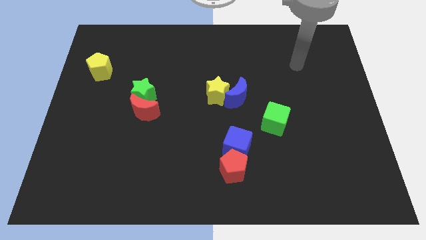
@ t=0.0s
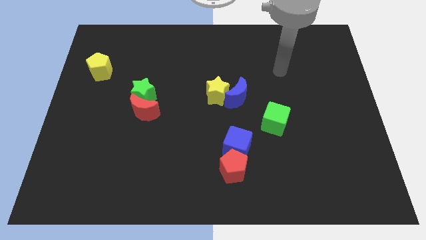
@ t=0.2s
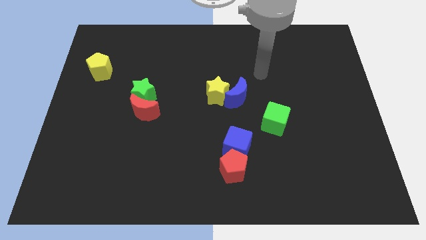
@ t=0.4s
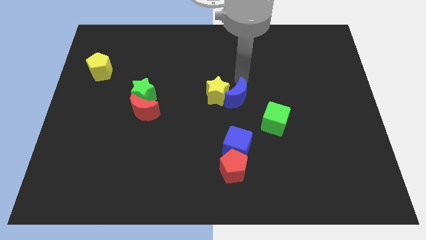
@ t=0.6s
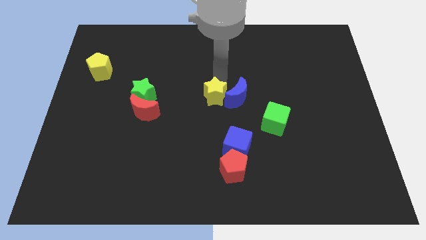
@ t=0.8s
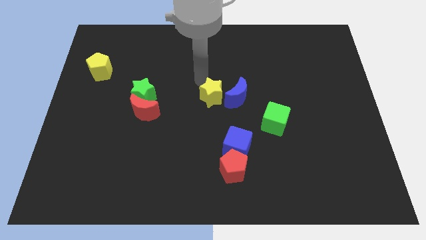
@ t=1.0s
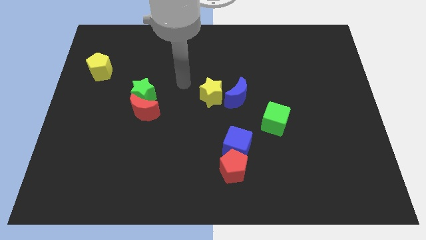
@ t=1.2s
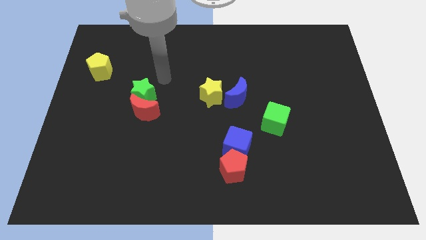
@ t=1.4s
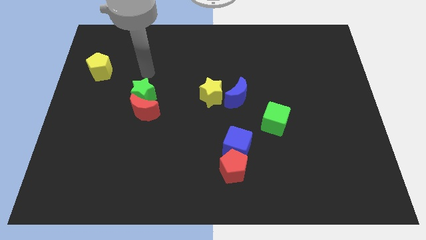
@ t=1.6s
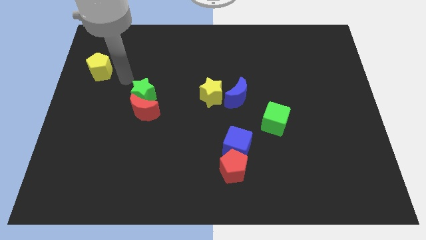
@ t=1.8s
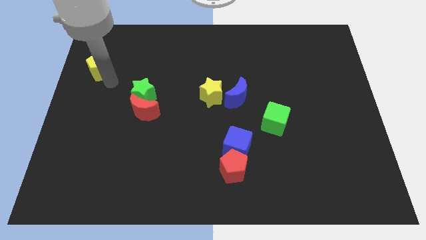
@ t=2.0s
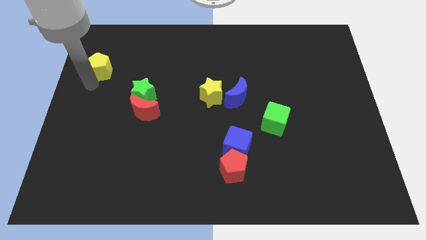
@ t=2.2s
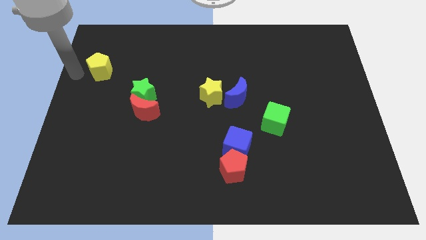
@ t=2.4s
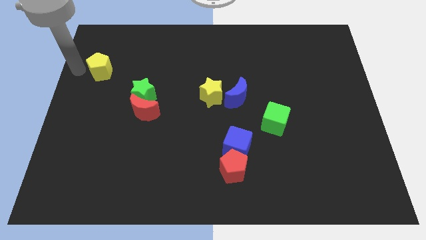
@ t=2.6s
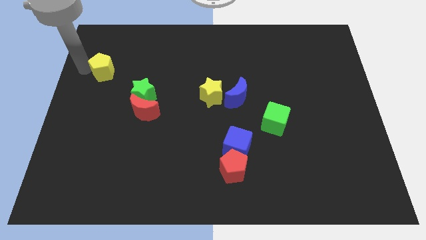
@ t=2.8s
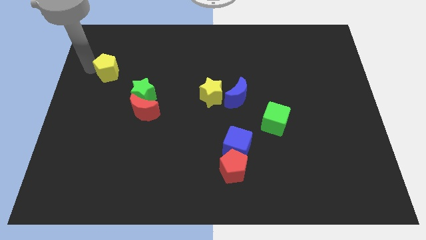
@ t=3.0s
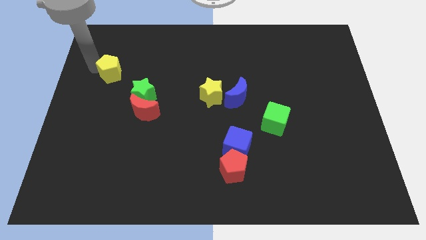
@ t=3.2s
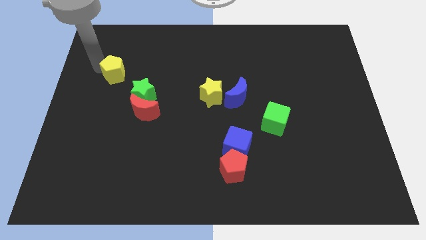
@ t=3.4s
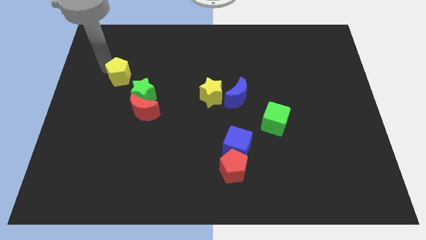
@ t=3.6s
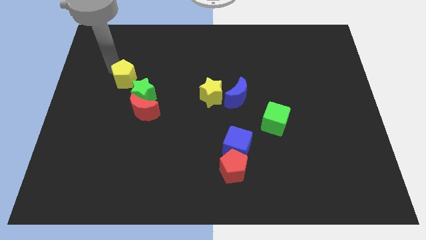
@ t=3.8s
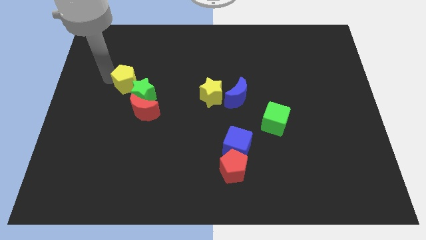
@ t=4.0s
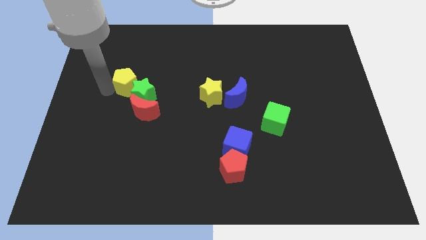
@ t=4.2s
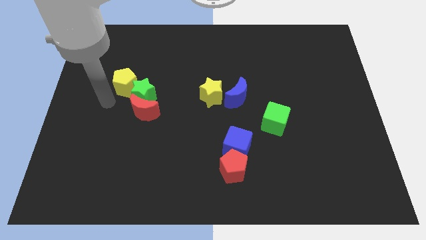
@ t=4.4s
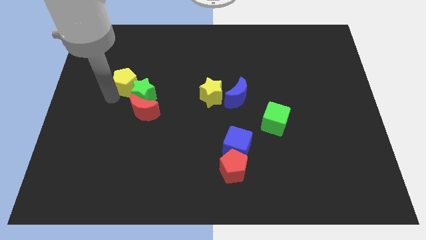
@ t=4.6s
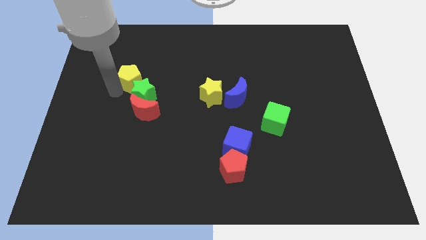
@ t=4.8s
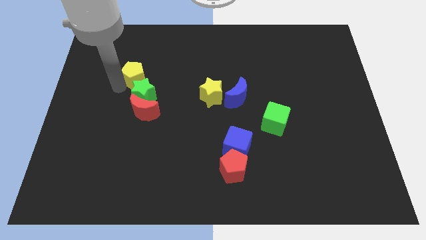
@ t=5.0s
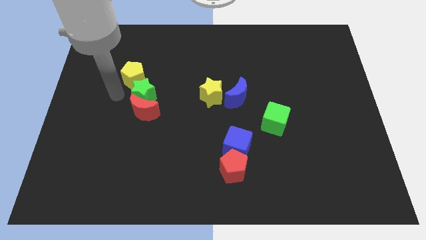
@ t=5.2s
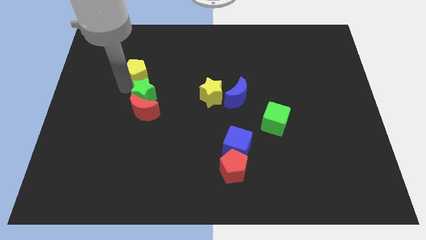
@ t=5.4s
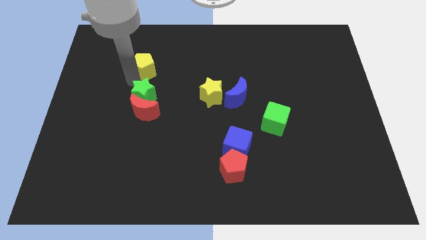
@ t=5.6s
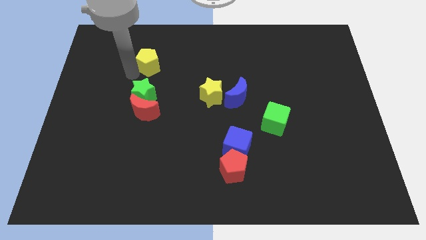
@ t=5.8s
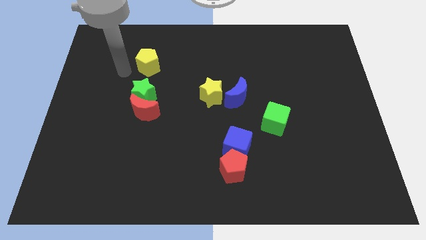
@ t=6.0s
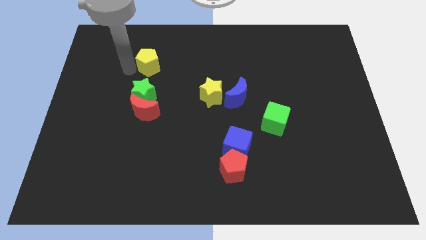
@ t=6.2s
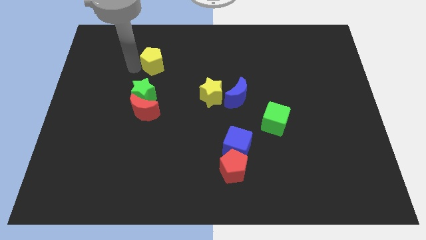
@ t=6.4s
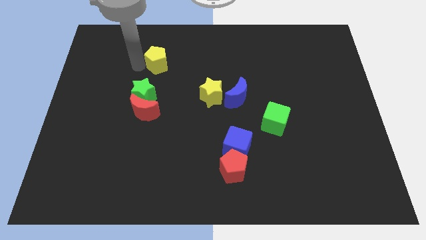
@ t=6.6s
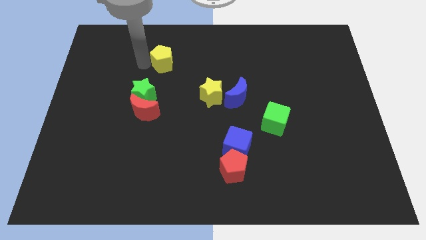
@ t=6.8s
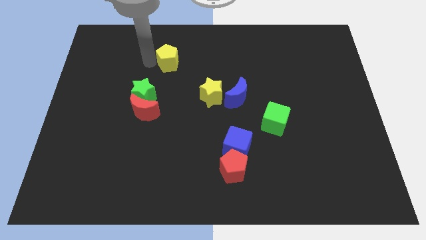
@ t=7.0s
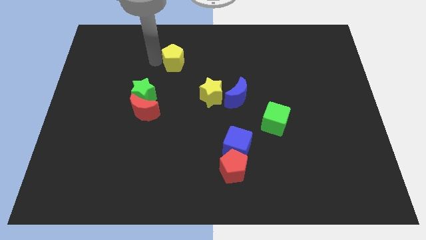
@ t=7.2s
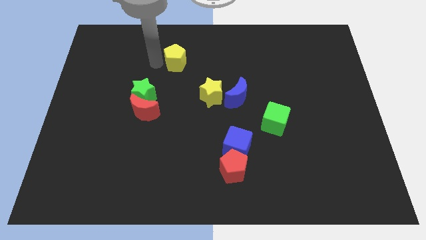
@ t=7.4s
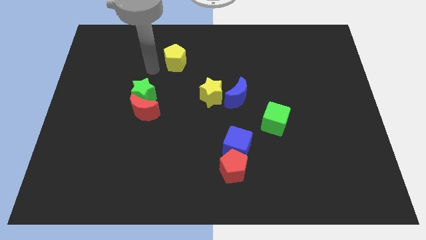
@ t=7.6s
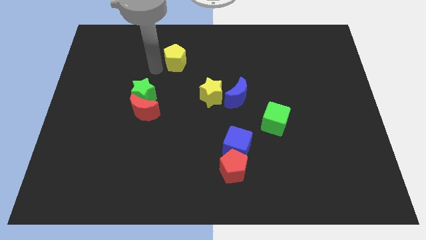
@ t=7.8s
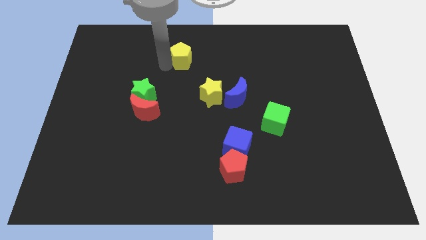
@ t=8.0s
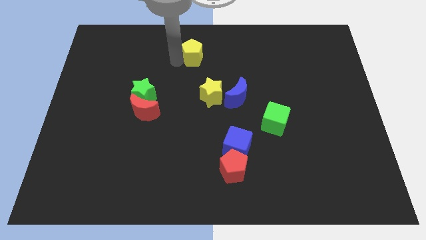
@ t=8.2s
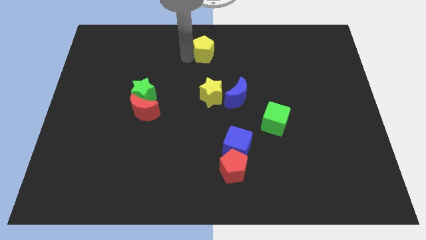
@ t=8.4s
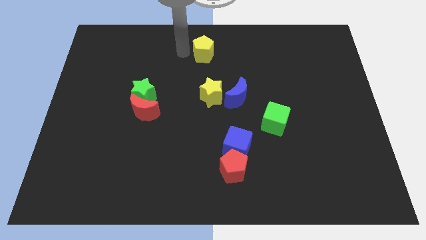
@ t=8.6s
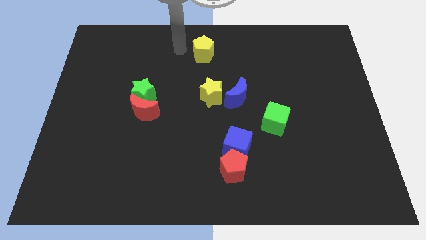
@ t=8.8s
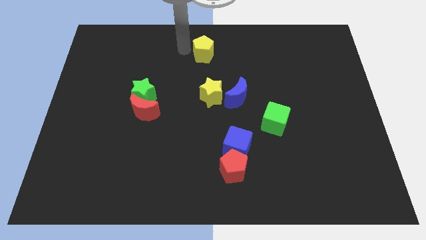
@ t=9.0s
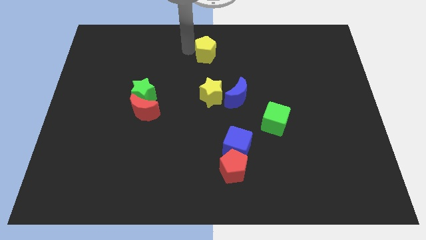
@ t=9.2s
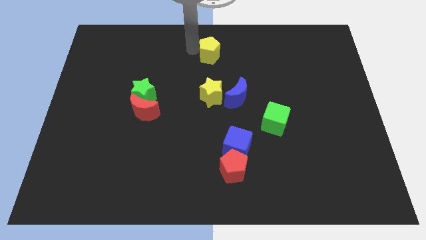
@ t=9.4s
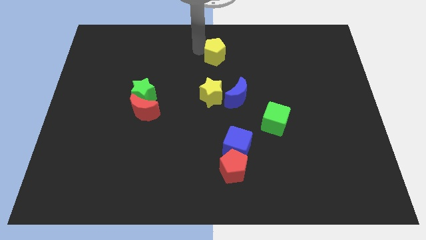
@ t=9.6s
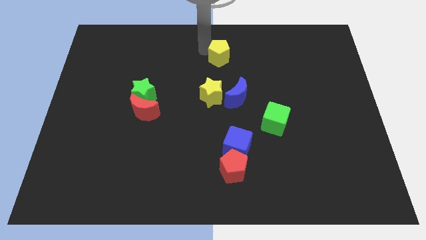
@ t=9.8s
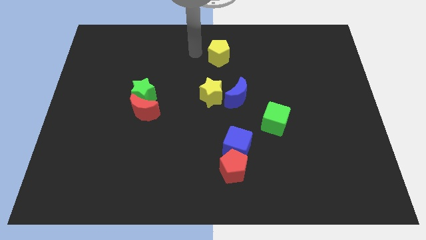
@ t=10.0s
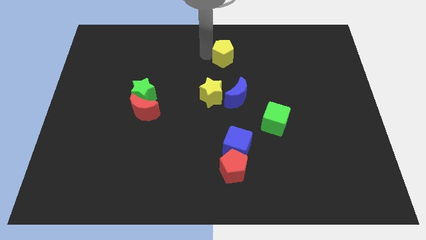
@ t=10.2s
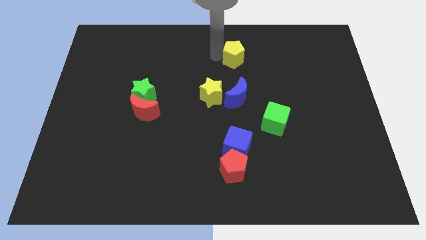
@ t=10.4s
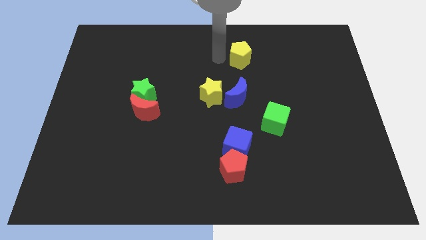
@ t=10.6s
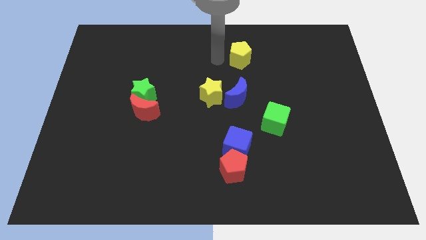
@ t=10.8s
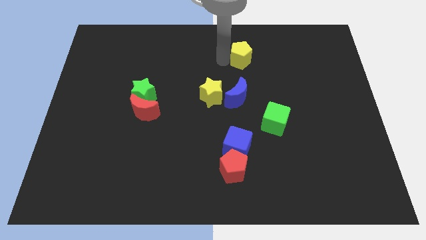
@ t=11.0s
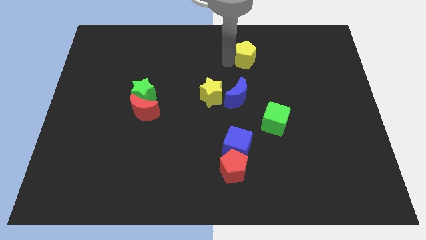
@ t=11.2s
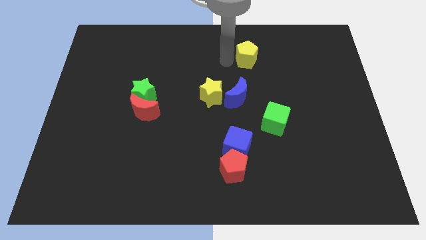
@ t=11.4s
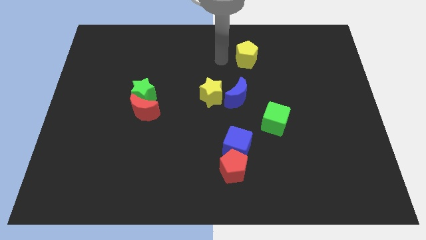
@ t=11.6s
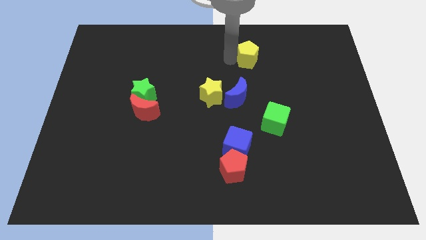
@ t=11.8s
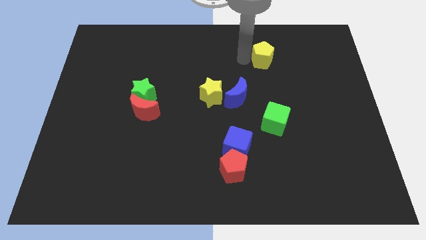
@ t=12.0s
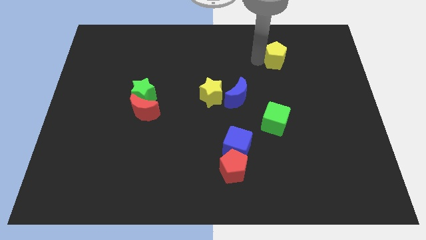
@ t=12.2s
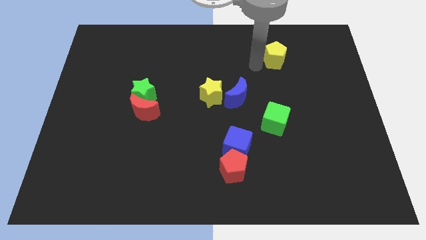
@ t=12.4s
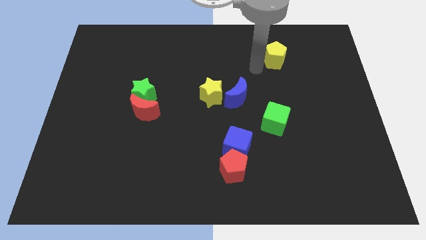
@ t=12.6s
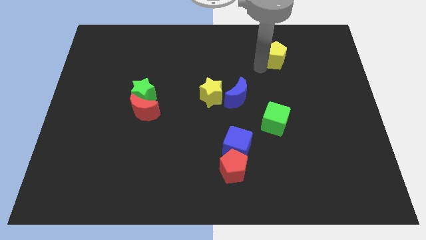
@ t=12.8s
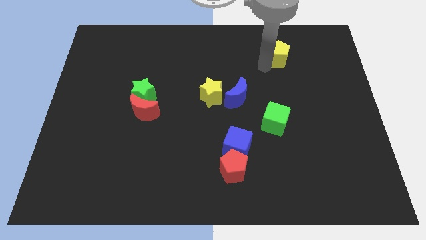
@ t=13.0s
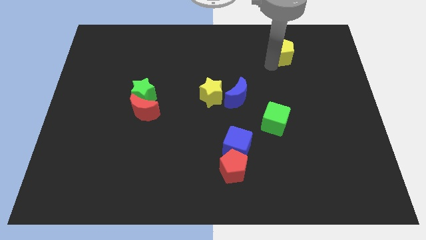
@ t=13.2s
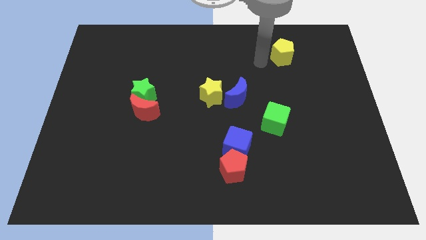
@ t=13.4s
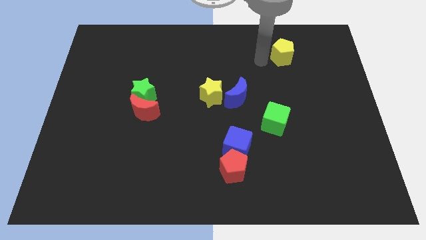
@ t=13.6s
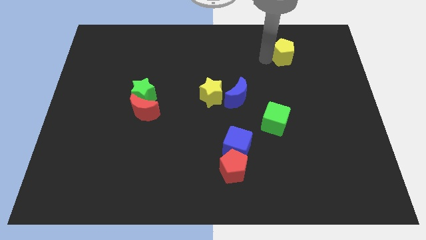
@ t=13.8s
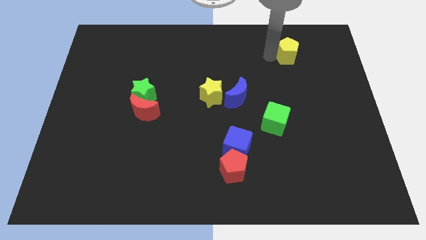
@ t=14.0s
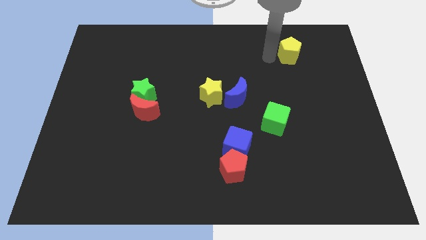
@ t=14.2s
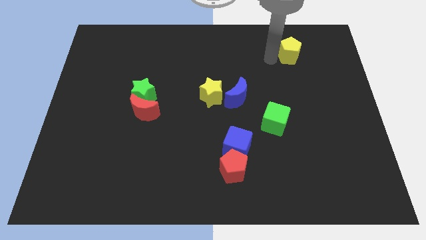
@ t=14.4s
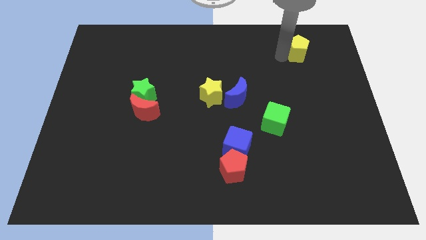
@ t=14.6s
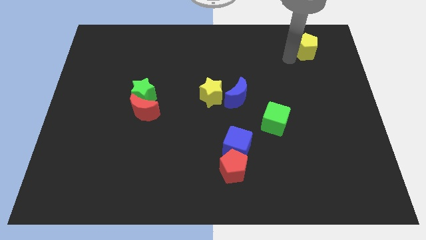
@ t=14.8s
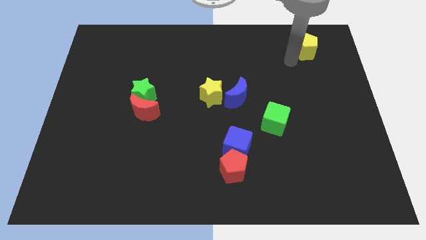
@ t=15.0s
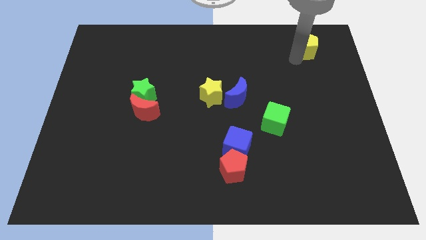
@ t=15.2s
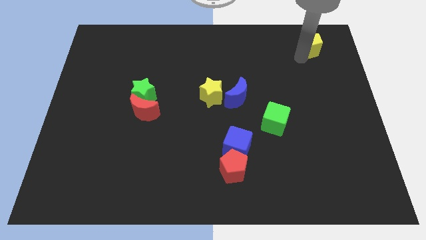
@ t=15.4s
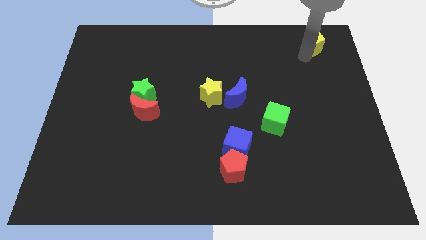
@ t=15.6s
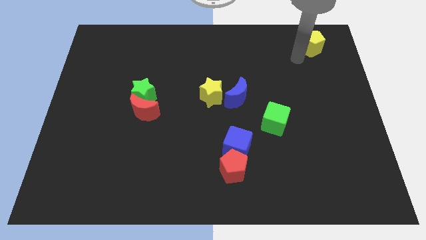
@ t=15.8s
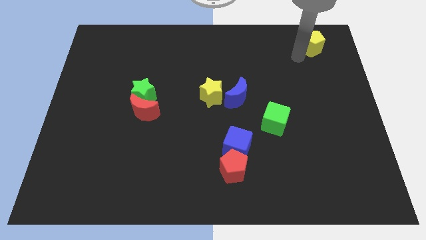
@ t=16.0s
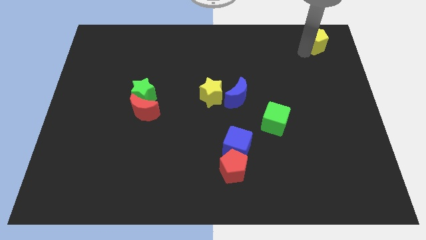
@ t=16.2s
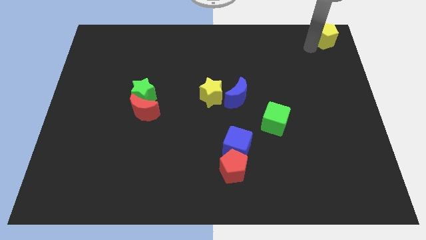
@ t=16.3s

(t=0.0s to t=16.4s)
move the yellow pentagon to the upper right corner
